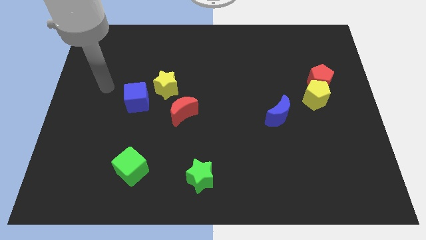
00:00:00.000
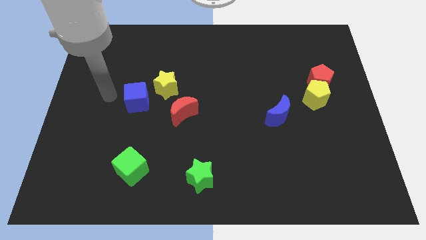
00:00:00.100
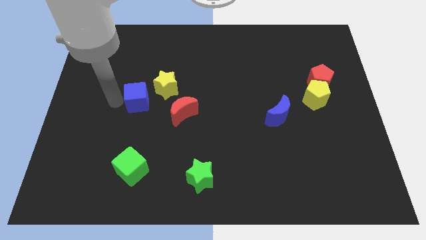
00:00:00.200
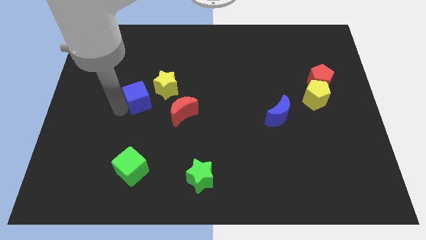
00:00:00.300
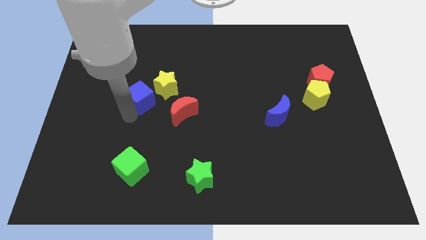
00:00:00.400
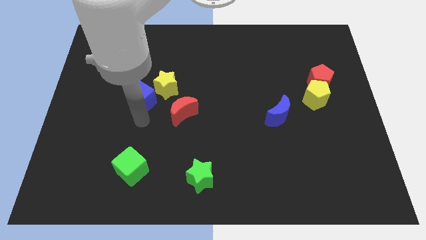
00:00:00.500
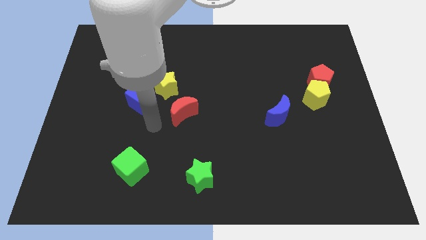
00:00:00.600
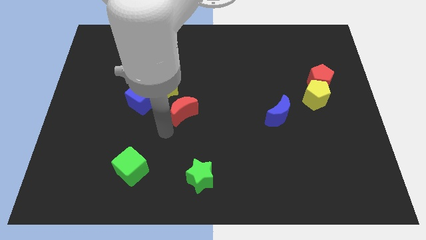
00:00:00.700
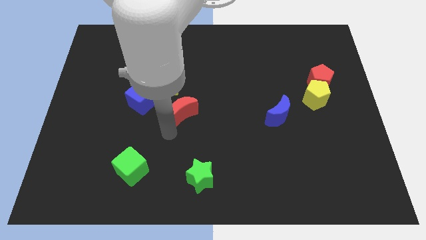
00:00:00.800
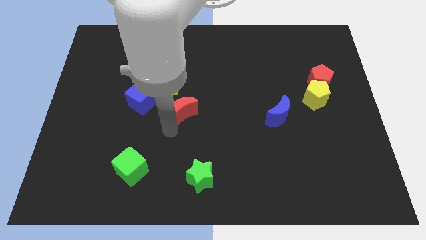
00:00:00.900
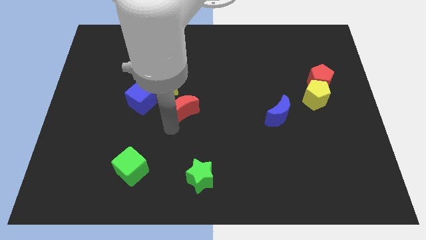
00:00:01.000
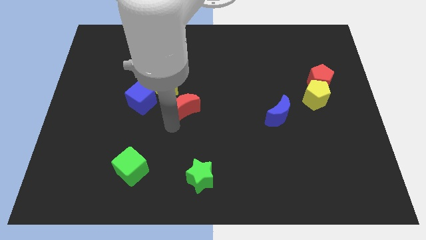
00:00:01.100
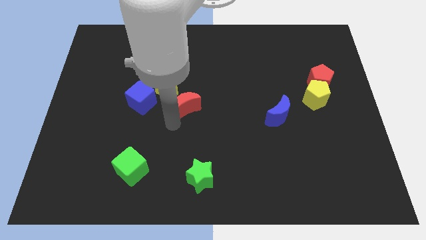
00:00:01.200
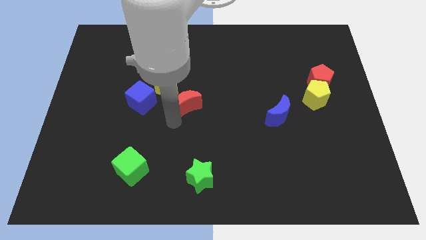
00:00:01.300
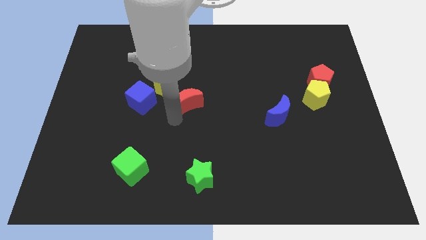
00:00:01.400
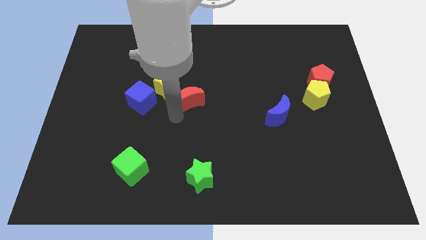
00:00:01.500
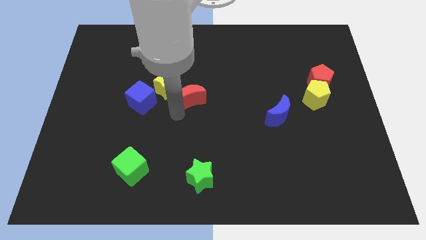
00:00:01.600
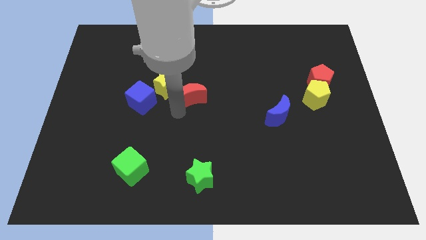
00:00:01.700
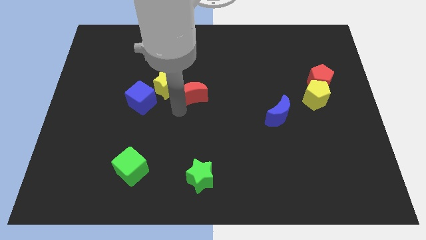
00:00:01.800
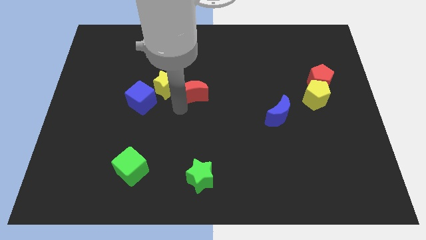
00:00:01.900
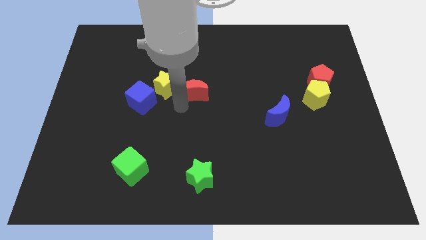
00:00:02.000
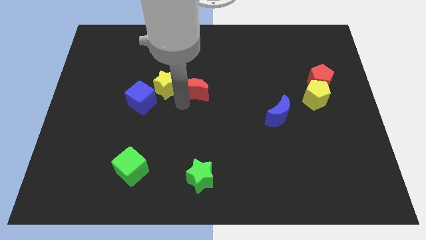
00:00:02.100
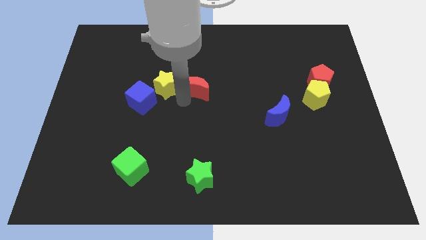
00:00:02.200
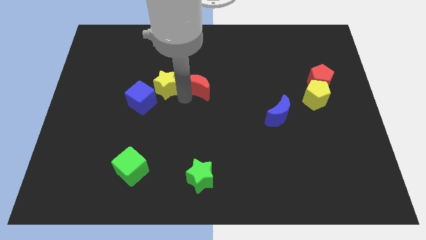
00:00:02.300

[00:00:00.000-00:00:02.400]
slightly slide the red moon up and then right

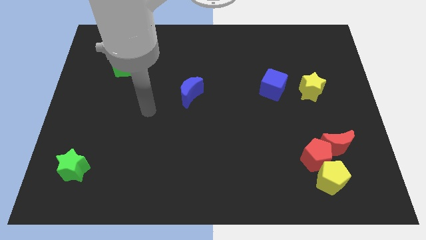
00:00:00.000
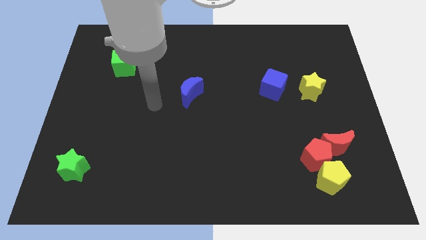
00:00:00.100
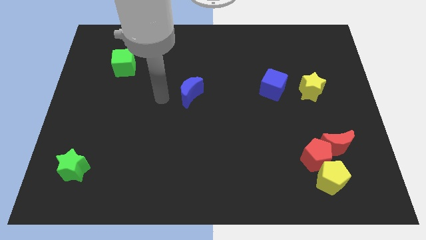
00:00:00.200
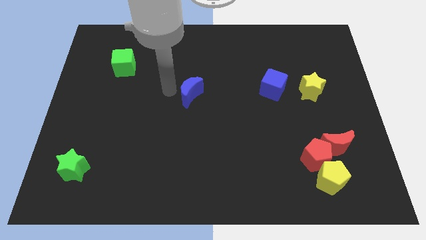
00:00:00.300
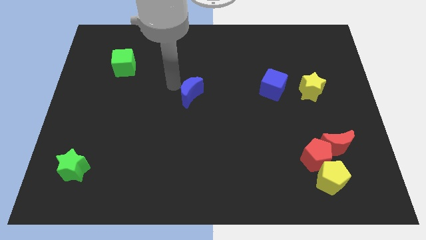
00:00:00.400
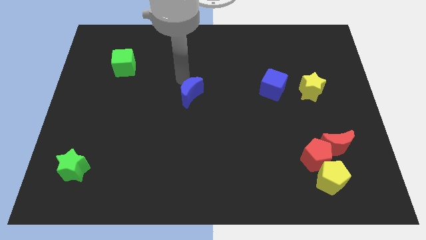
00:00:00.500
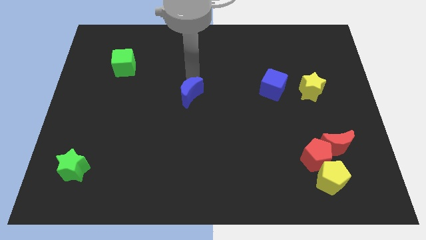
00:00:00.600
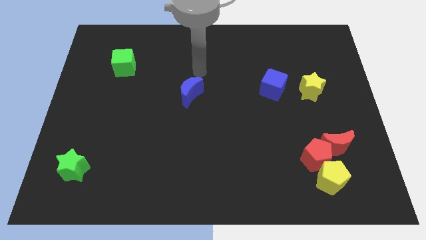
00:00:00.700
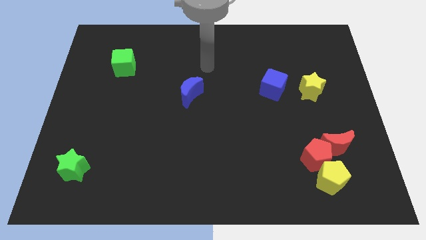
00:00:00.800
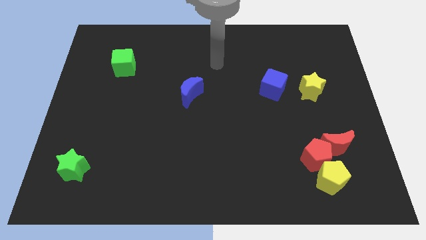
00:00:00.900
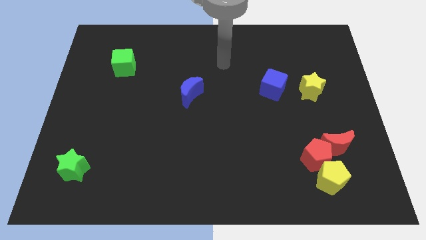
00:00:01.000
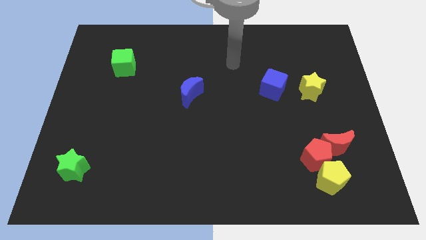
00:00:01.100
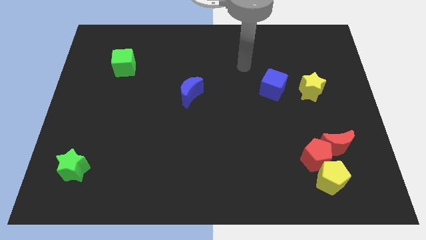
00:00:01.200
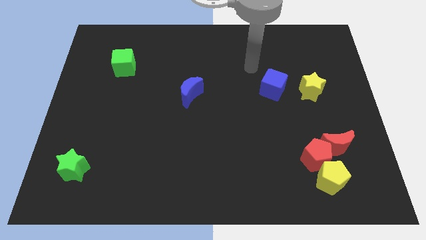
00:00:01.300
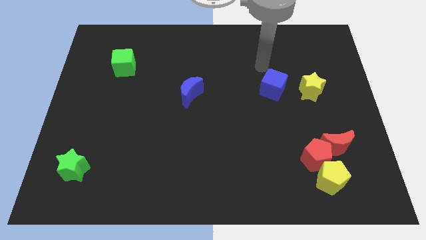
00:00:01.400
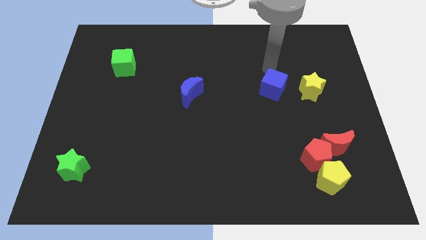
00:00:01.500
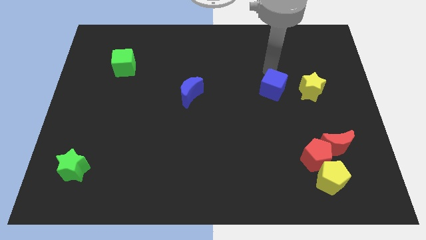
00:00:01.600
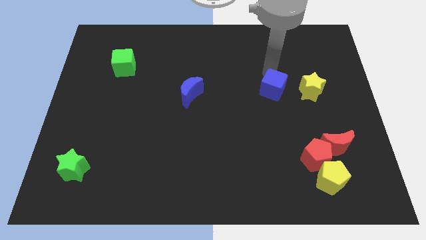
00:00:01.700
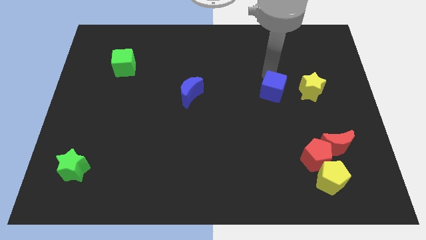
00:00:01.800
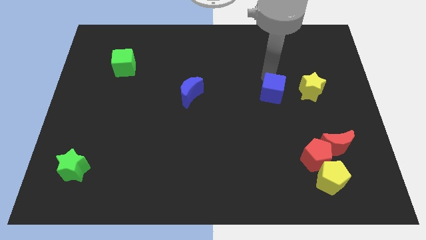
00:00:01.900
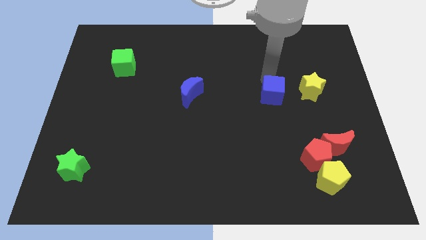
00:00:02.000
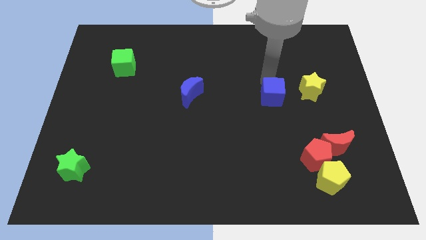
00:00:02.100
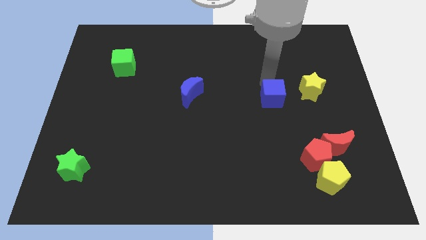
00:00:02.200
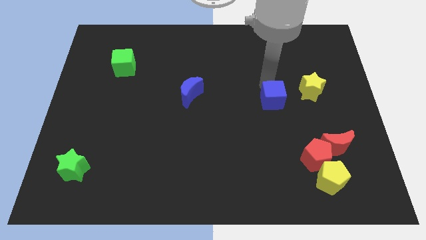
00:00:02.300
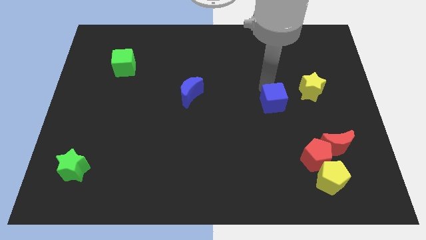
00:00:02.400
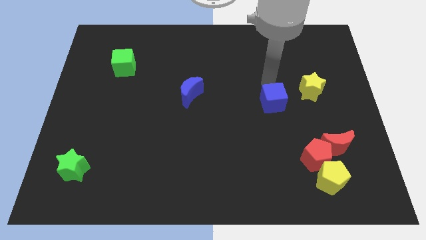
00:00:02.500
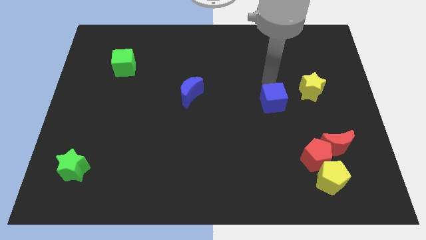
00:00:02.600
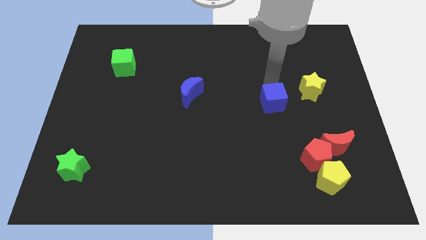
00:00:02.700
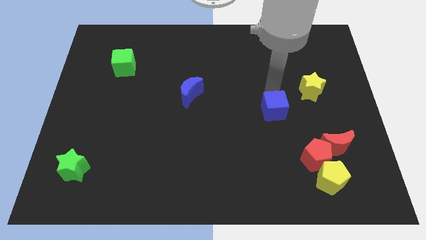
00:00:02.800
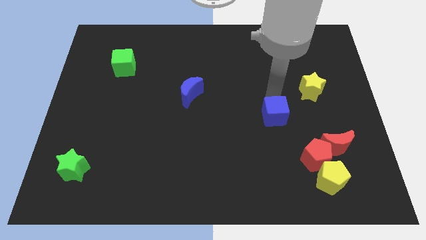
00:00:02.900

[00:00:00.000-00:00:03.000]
slide the blue cube down slightly

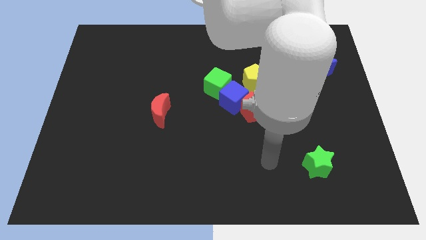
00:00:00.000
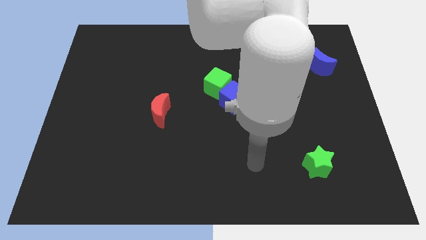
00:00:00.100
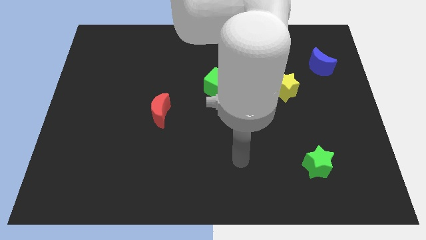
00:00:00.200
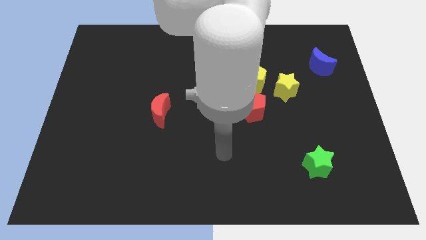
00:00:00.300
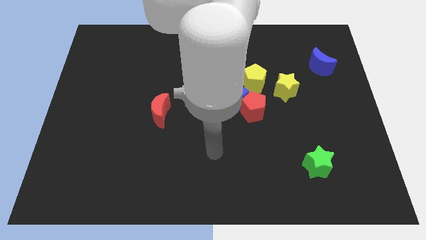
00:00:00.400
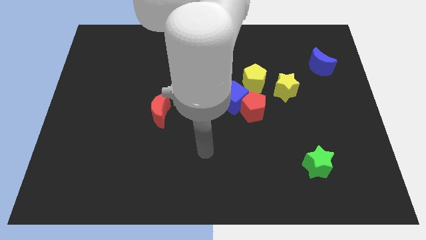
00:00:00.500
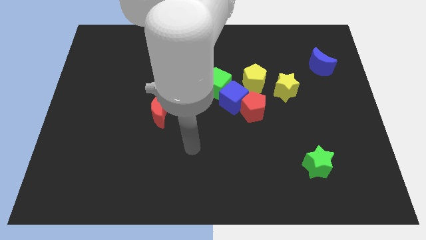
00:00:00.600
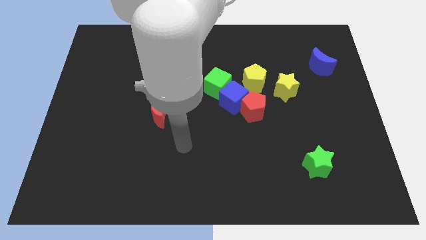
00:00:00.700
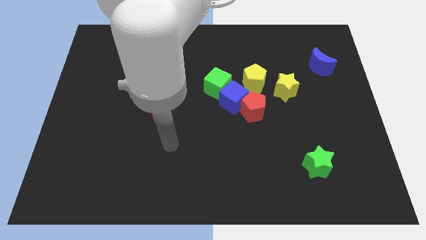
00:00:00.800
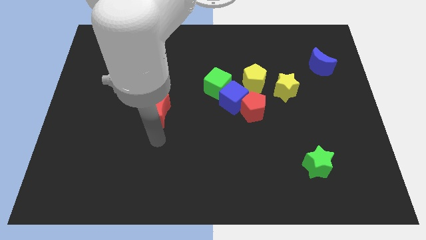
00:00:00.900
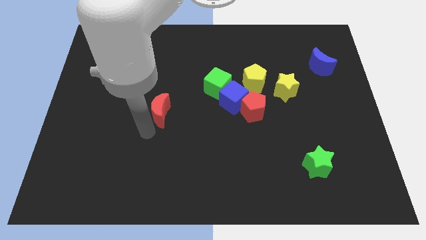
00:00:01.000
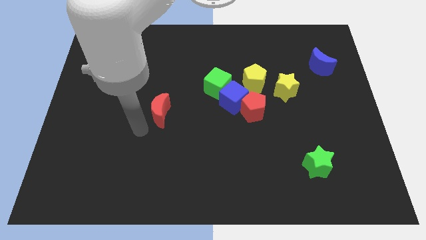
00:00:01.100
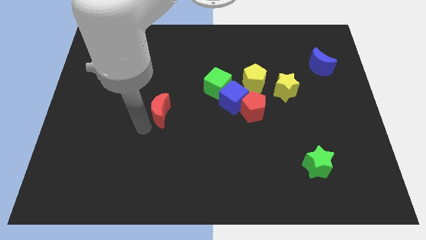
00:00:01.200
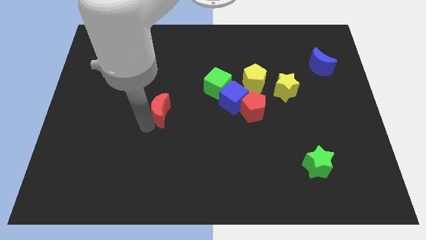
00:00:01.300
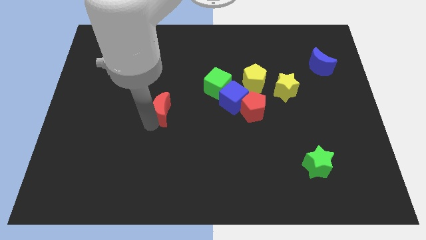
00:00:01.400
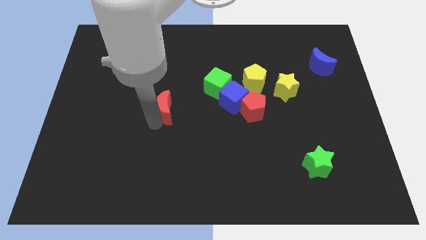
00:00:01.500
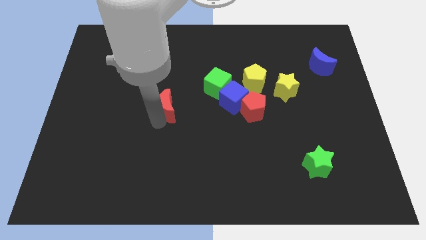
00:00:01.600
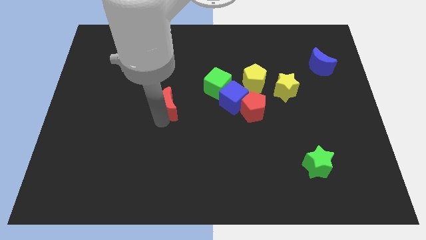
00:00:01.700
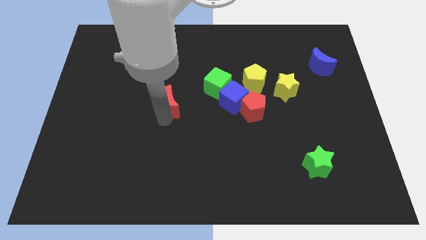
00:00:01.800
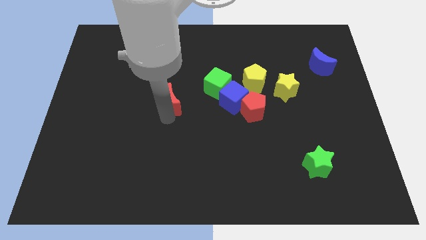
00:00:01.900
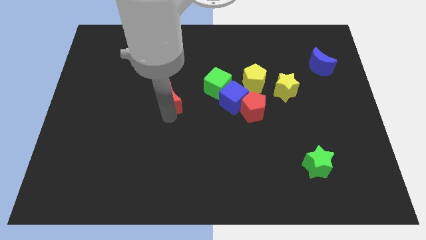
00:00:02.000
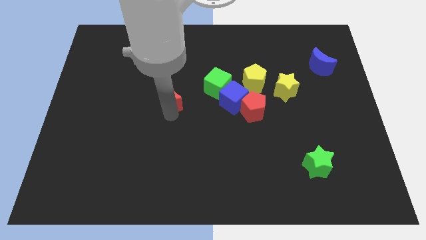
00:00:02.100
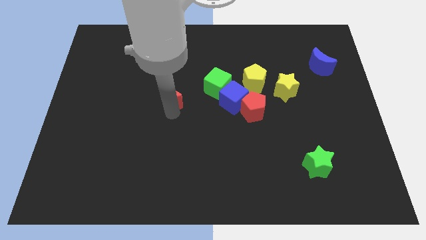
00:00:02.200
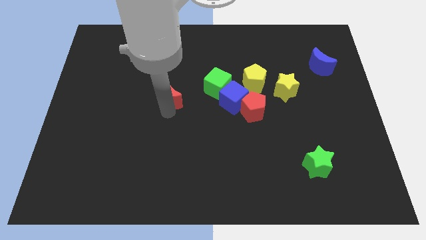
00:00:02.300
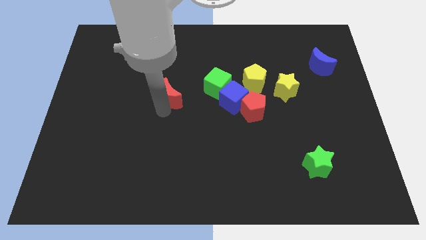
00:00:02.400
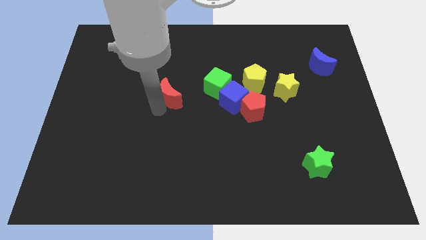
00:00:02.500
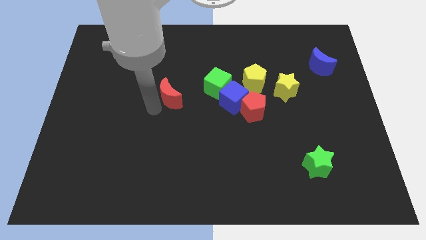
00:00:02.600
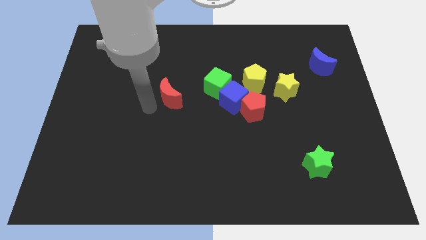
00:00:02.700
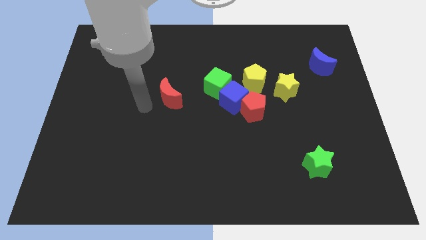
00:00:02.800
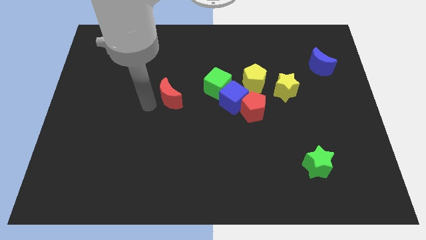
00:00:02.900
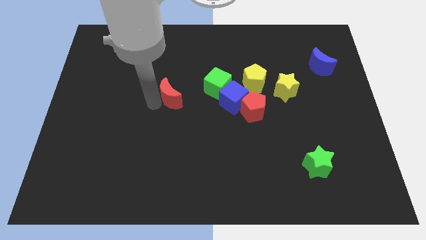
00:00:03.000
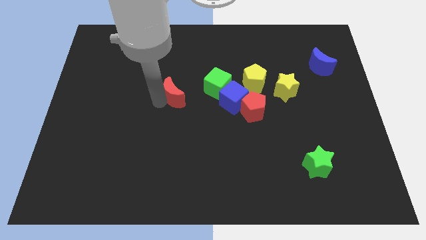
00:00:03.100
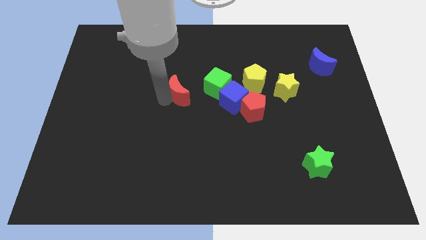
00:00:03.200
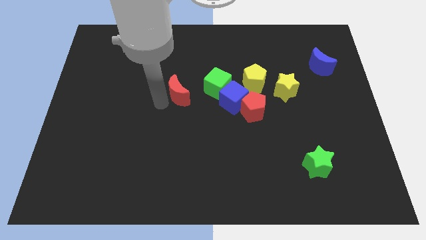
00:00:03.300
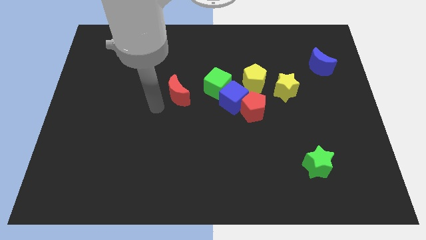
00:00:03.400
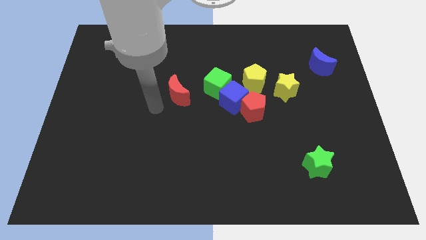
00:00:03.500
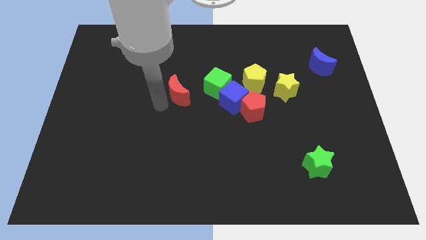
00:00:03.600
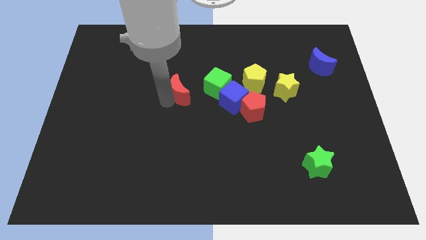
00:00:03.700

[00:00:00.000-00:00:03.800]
slide the red moon a little bit up and right diagonally
